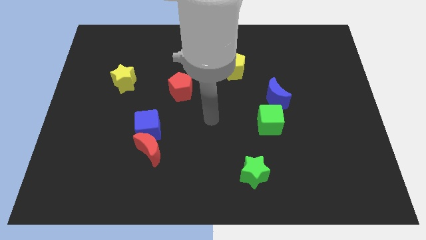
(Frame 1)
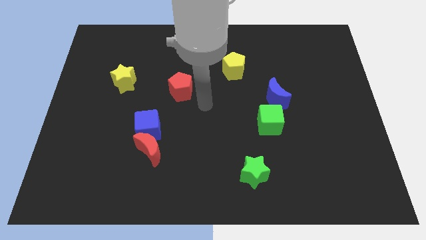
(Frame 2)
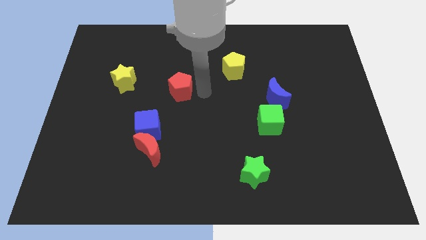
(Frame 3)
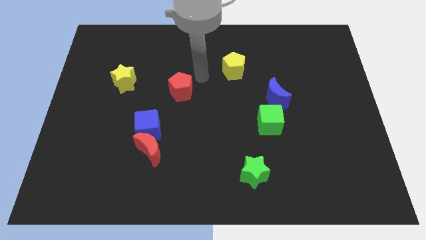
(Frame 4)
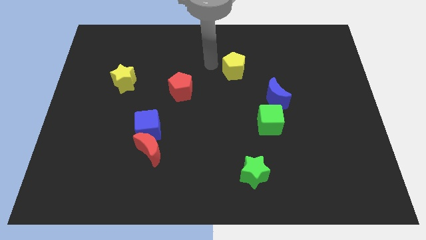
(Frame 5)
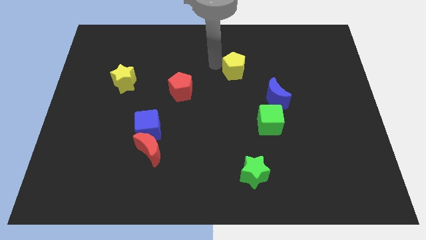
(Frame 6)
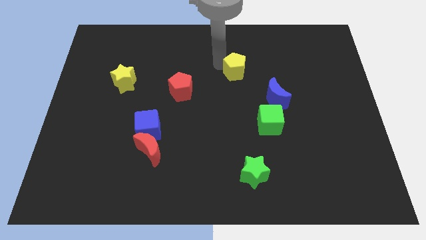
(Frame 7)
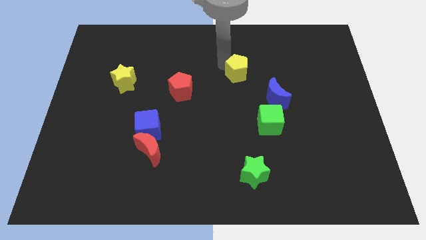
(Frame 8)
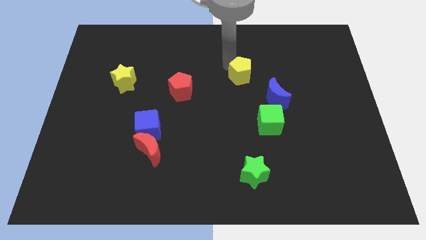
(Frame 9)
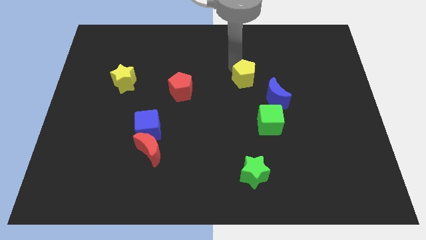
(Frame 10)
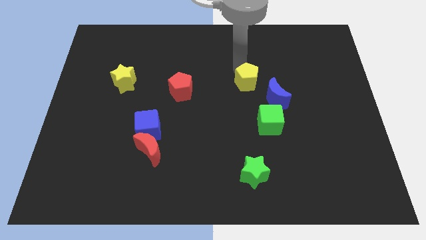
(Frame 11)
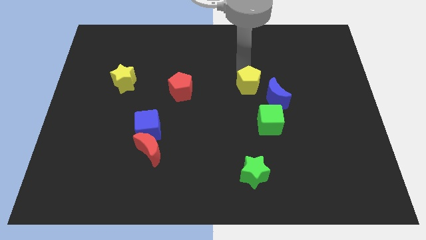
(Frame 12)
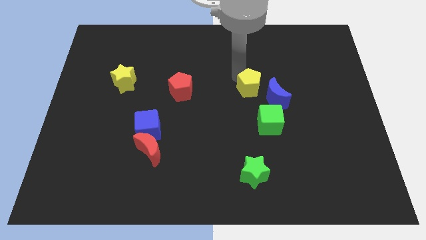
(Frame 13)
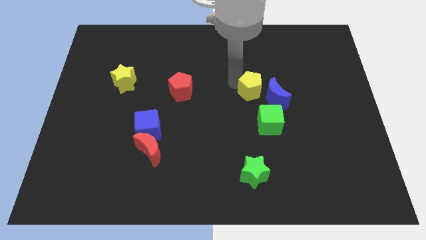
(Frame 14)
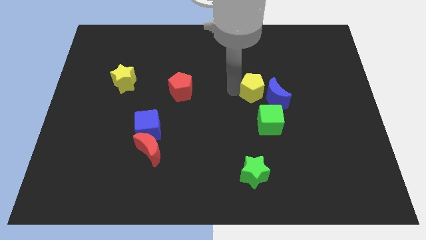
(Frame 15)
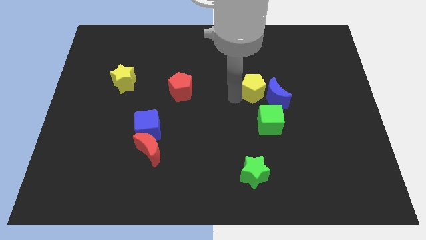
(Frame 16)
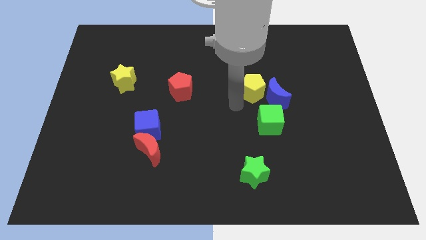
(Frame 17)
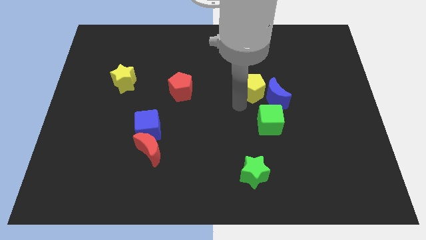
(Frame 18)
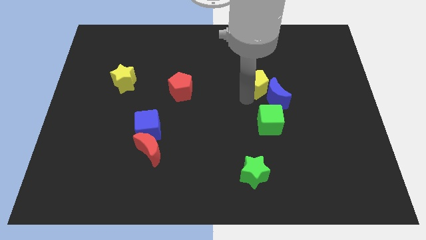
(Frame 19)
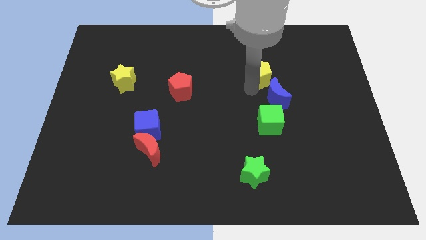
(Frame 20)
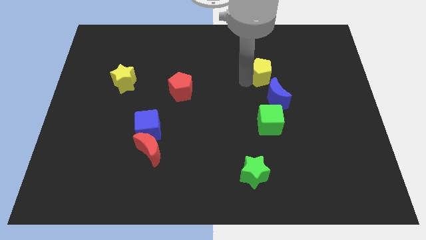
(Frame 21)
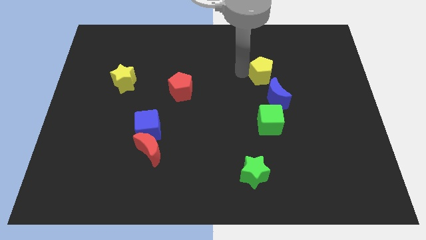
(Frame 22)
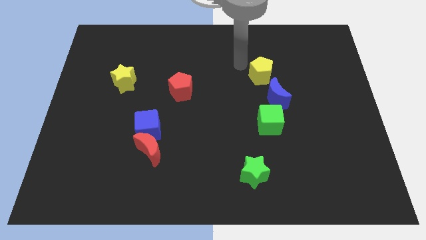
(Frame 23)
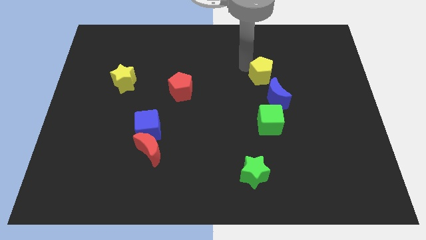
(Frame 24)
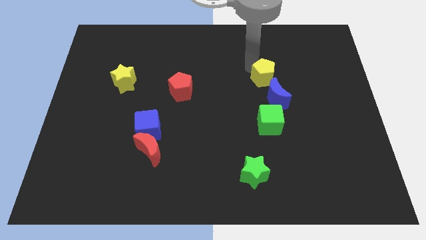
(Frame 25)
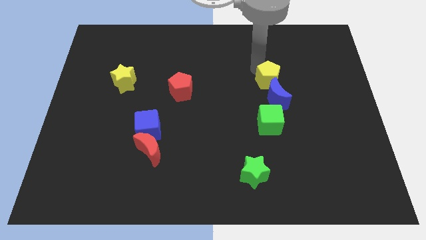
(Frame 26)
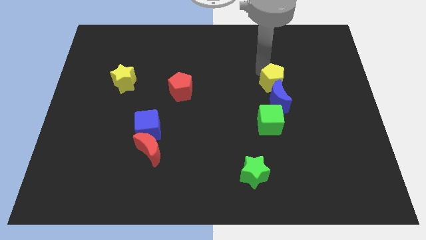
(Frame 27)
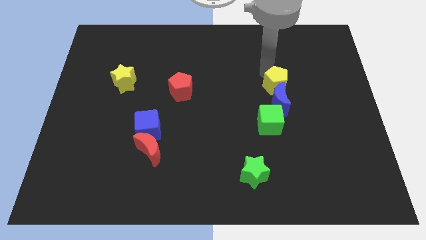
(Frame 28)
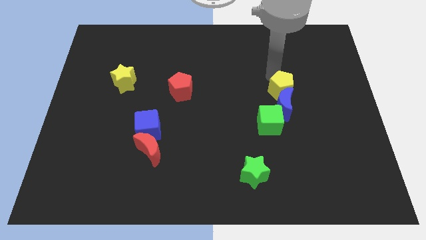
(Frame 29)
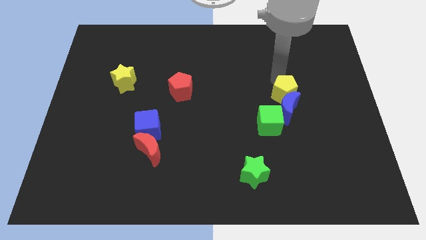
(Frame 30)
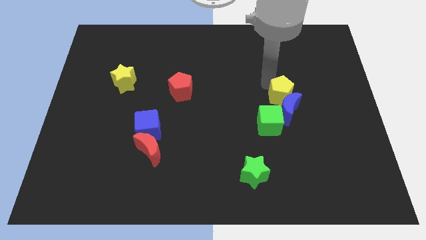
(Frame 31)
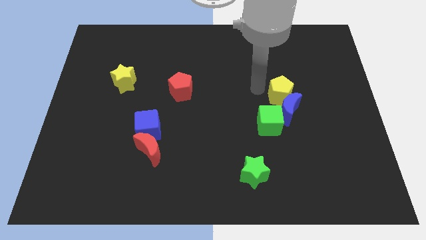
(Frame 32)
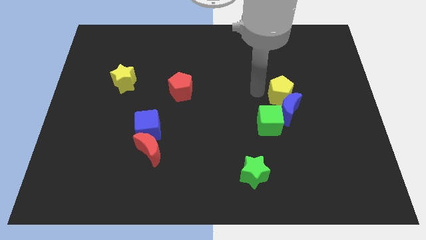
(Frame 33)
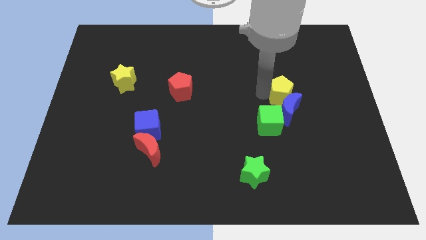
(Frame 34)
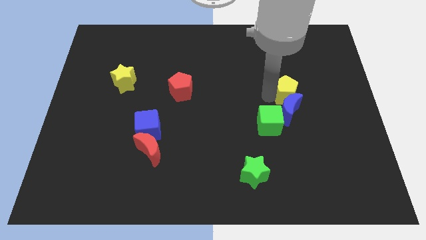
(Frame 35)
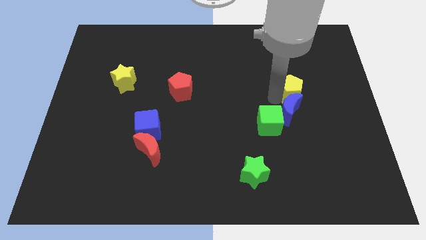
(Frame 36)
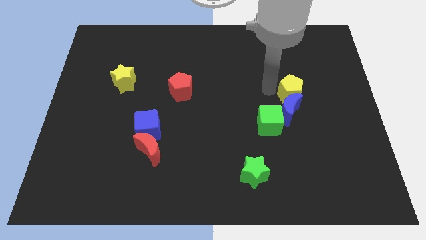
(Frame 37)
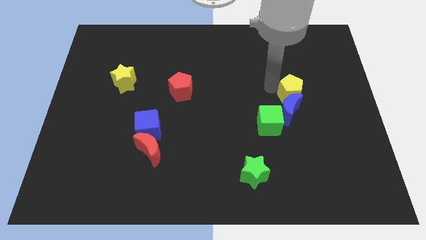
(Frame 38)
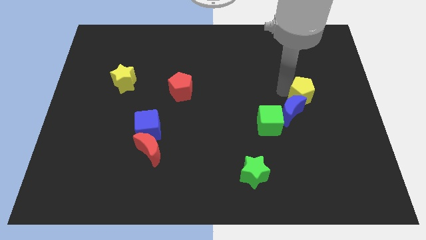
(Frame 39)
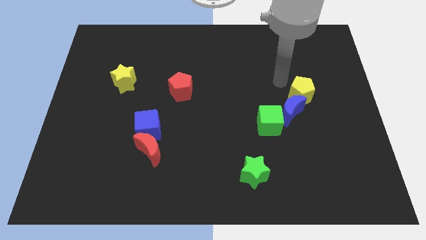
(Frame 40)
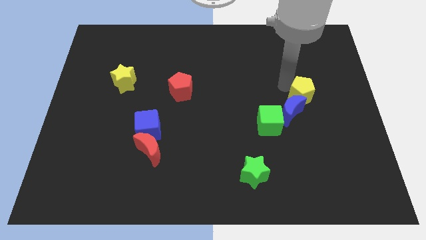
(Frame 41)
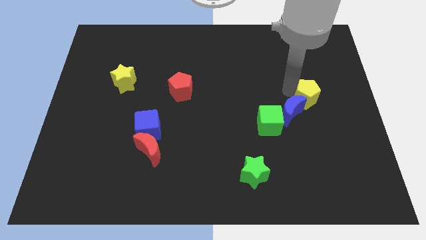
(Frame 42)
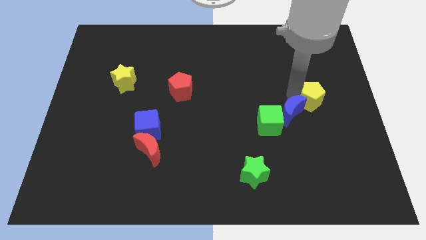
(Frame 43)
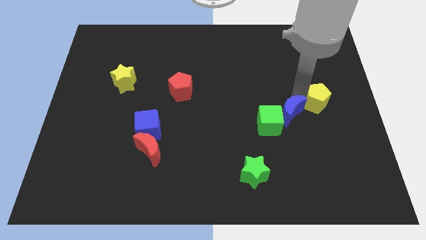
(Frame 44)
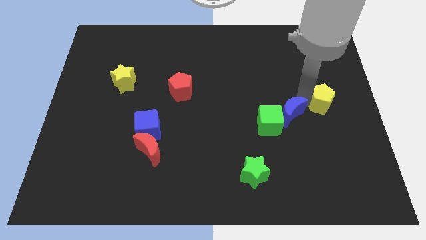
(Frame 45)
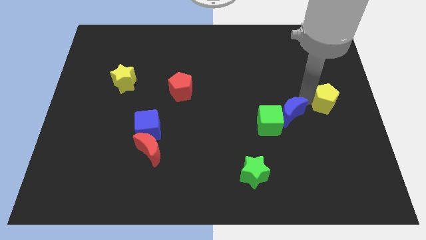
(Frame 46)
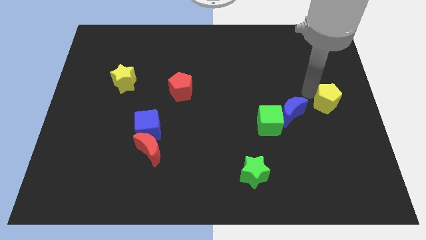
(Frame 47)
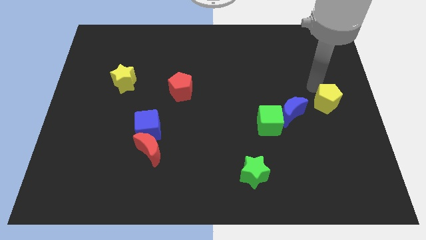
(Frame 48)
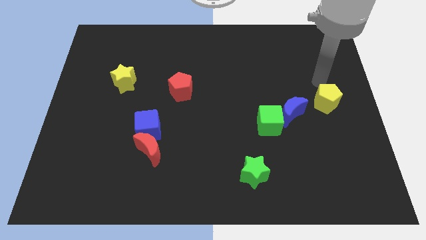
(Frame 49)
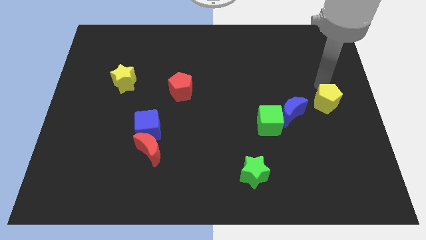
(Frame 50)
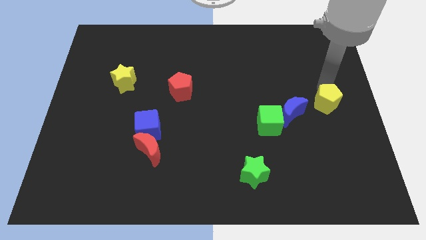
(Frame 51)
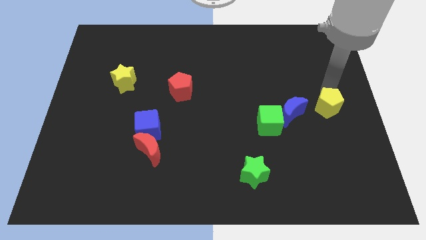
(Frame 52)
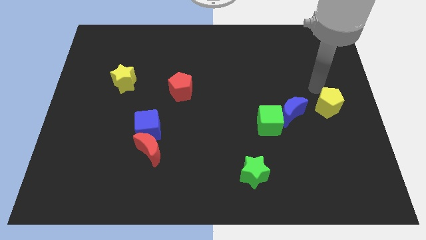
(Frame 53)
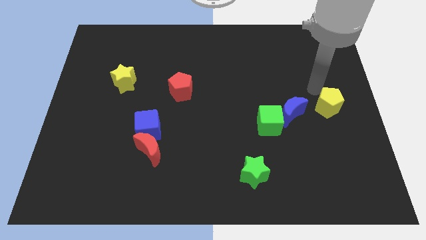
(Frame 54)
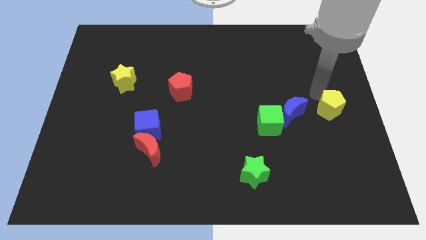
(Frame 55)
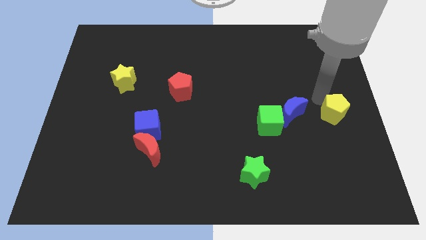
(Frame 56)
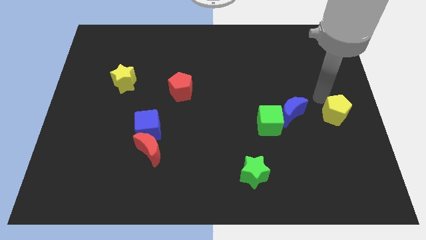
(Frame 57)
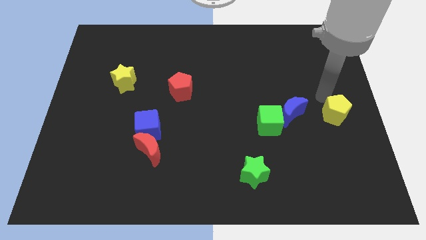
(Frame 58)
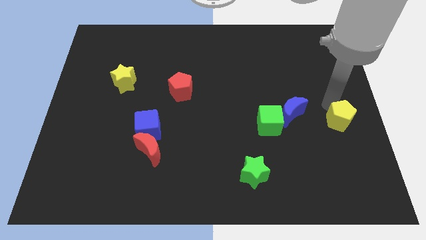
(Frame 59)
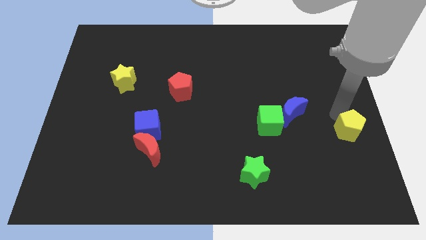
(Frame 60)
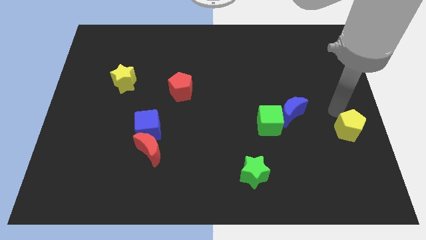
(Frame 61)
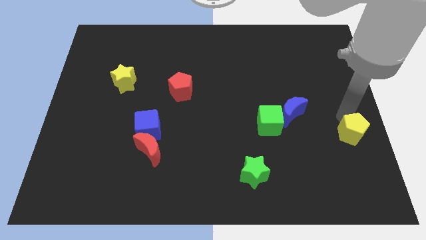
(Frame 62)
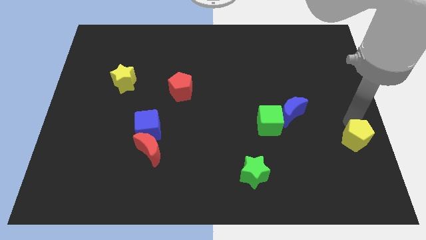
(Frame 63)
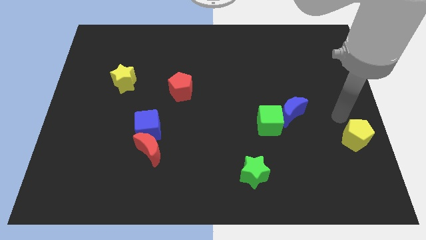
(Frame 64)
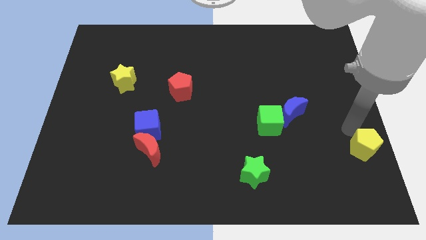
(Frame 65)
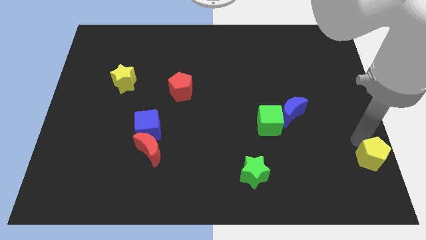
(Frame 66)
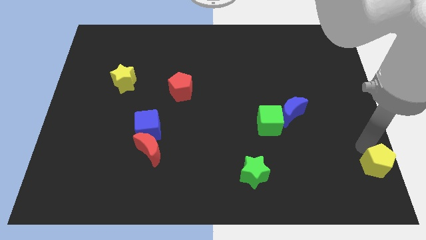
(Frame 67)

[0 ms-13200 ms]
push the yellow pentagon to the bottom right
